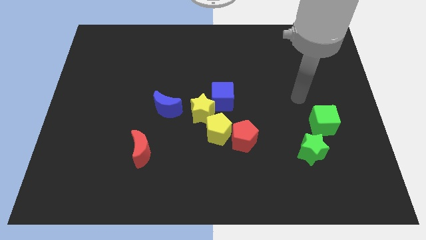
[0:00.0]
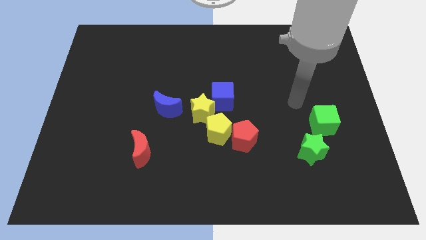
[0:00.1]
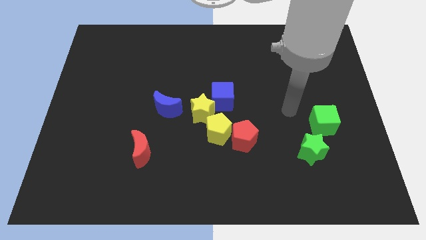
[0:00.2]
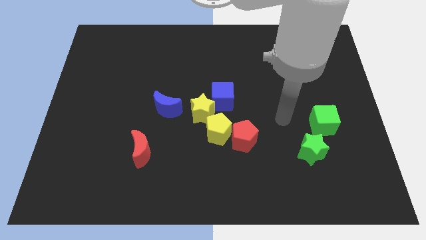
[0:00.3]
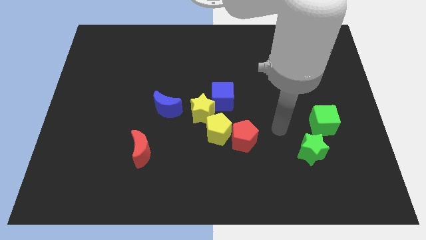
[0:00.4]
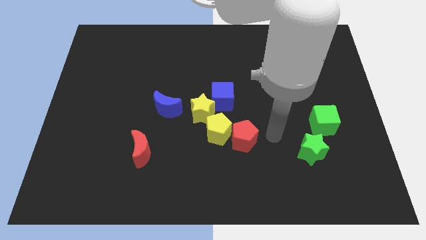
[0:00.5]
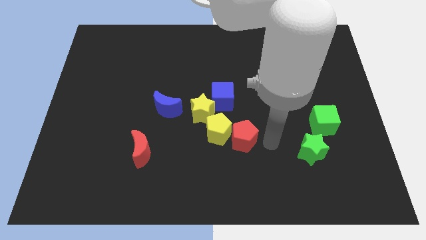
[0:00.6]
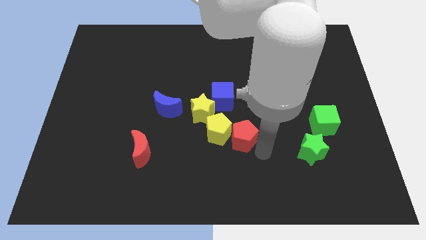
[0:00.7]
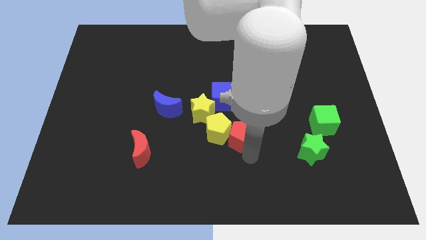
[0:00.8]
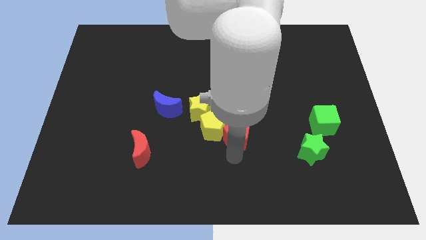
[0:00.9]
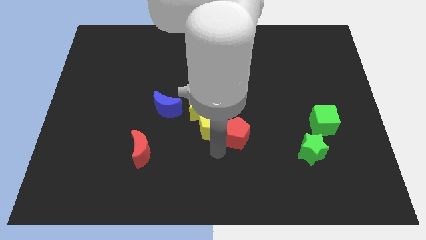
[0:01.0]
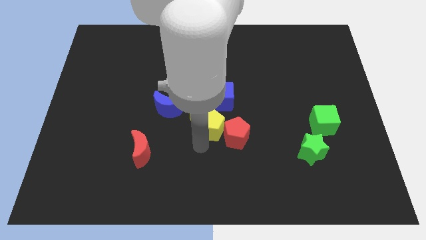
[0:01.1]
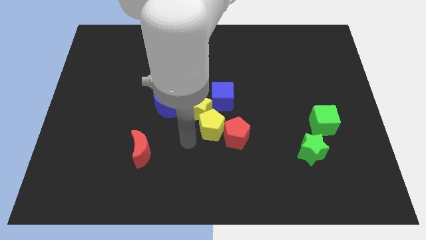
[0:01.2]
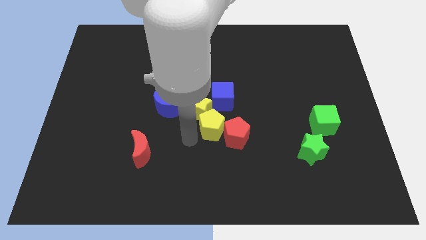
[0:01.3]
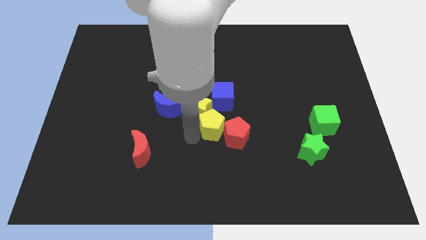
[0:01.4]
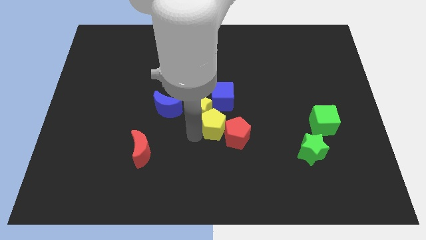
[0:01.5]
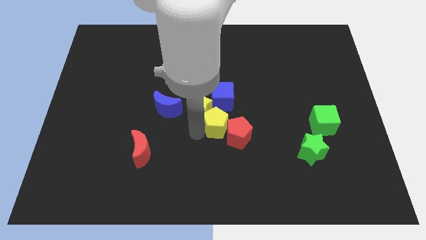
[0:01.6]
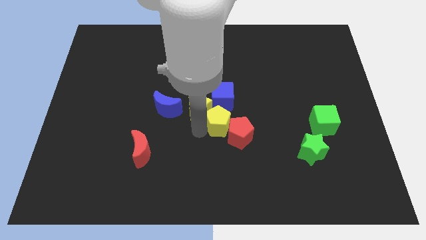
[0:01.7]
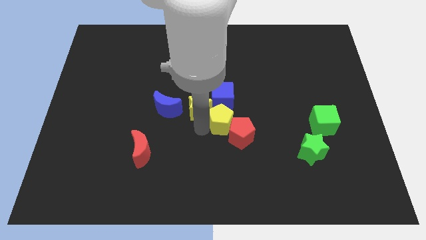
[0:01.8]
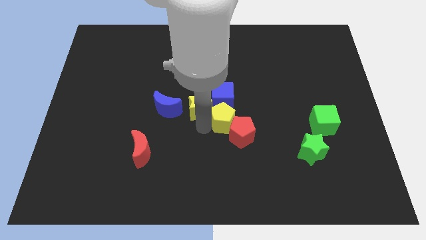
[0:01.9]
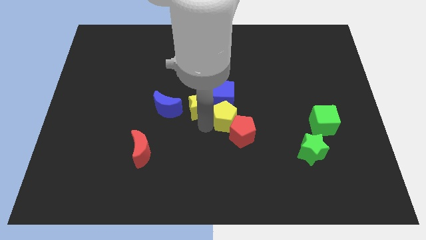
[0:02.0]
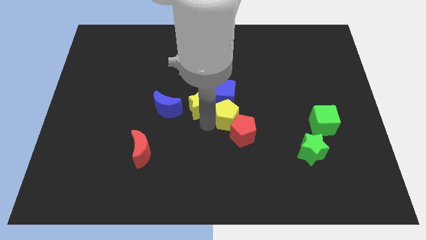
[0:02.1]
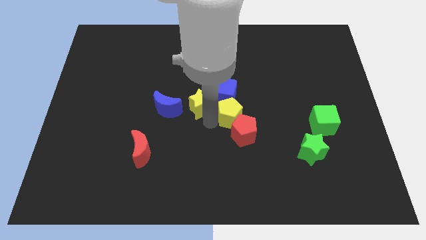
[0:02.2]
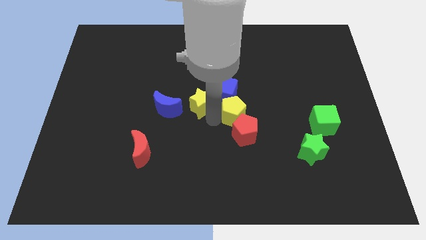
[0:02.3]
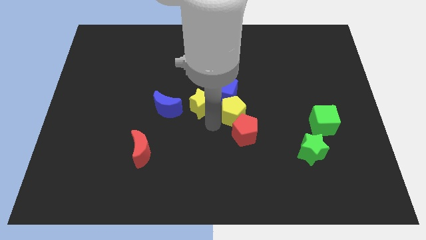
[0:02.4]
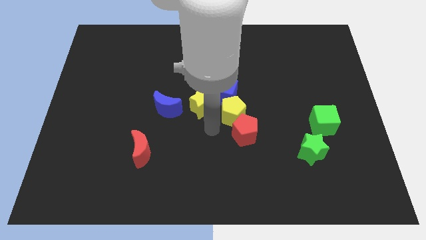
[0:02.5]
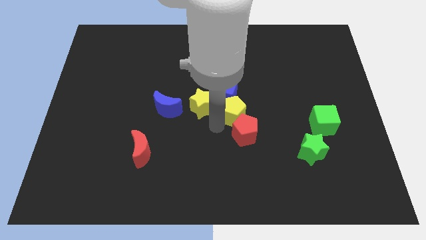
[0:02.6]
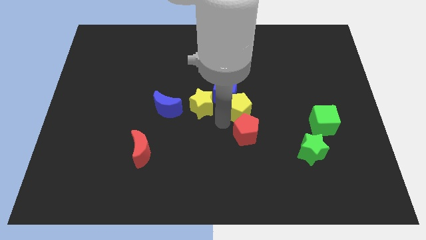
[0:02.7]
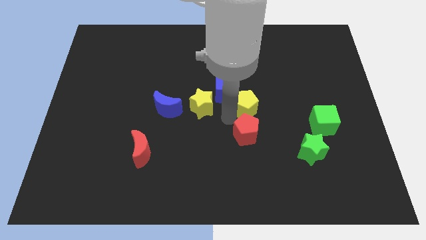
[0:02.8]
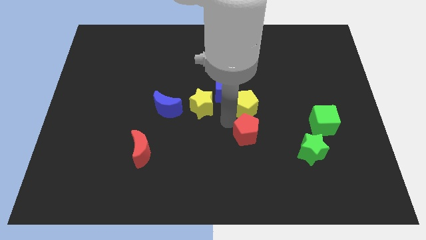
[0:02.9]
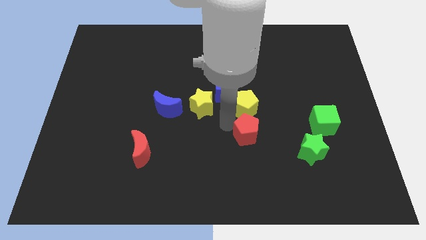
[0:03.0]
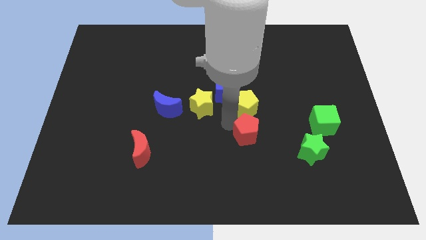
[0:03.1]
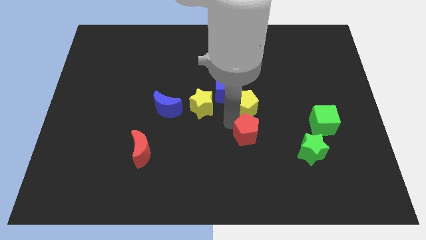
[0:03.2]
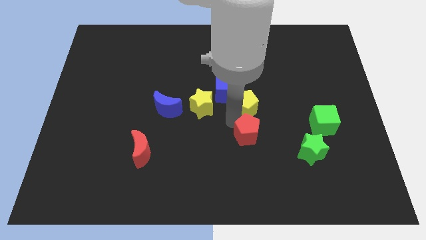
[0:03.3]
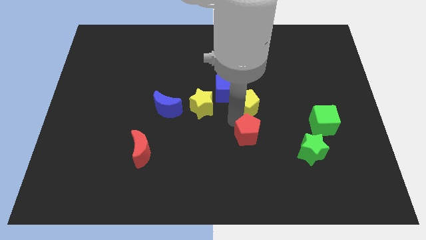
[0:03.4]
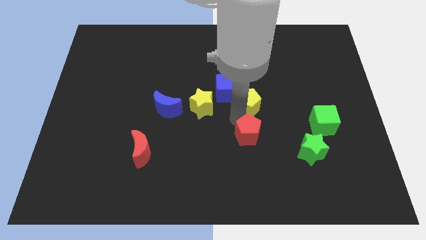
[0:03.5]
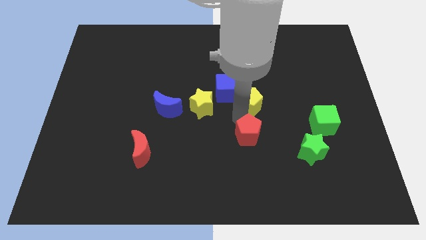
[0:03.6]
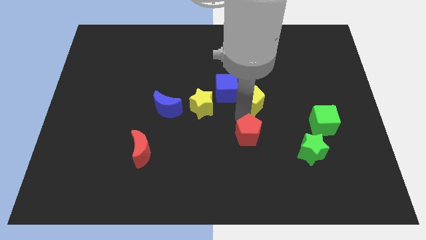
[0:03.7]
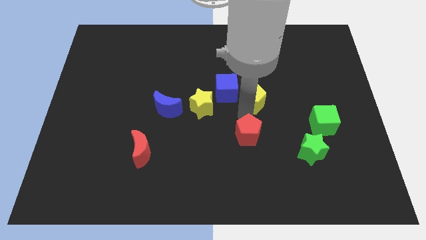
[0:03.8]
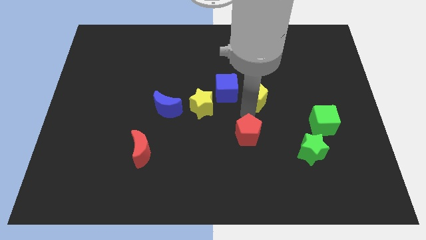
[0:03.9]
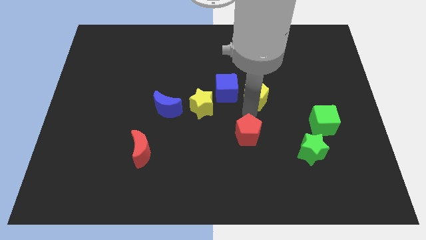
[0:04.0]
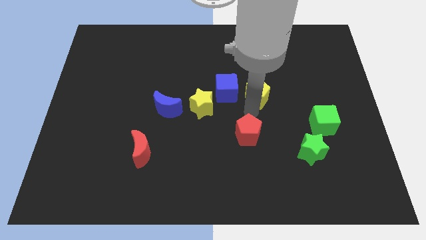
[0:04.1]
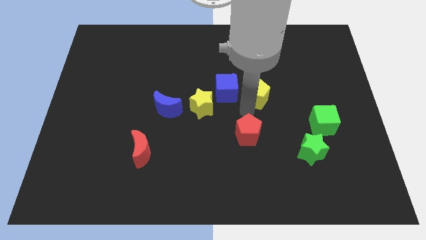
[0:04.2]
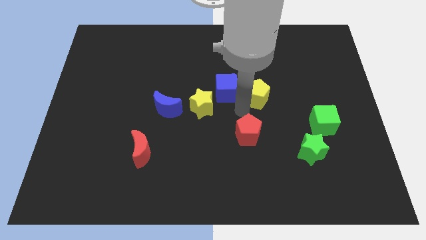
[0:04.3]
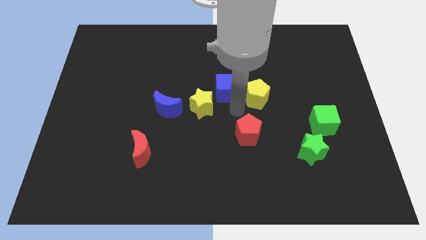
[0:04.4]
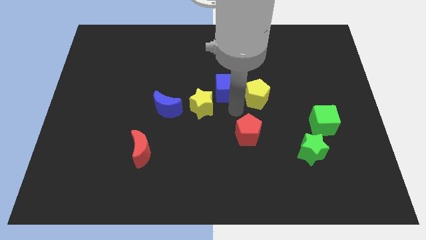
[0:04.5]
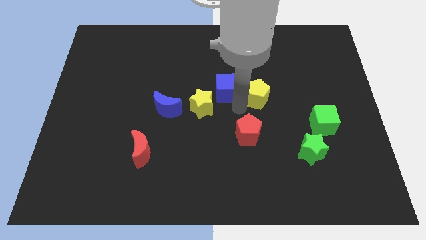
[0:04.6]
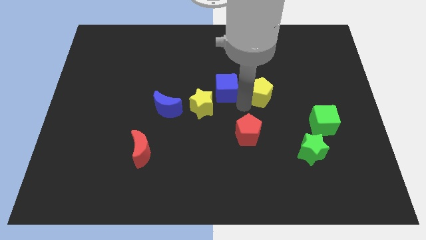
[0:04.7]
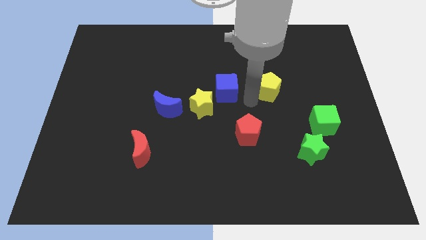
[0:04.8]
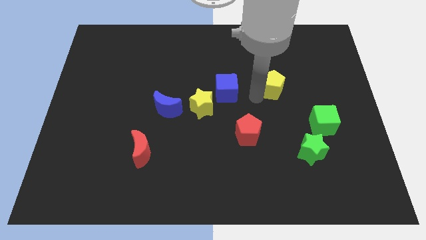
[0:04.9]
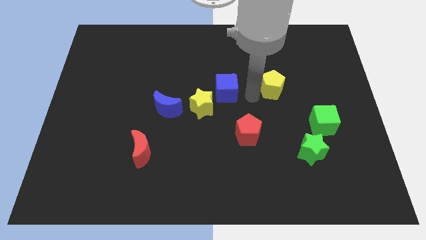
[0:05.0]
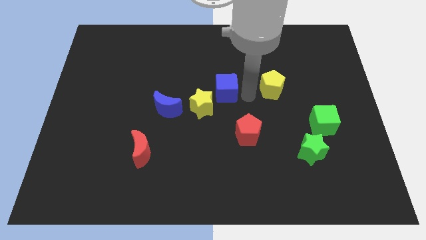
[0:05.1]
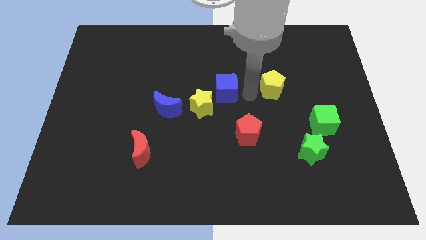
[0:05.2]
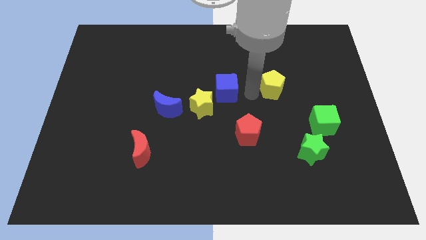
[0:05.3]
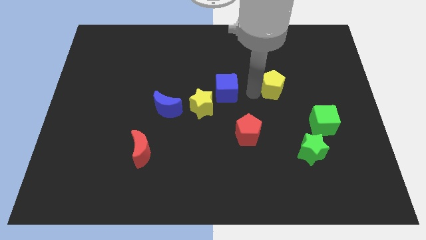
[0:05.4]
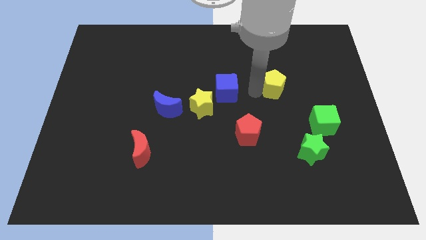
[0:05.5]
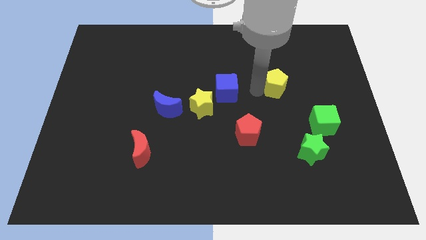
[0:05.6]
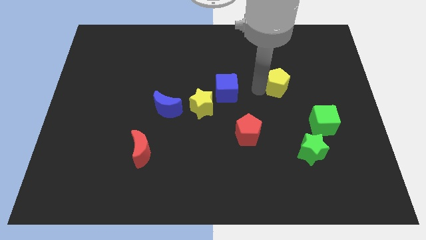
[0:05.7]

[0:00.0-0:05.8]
move the yellow pentagon up and right

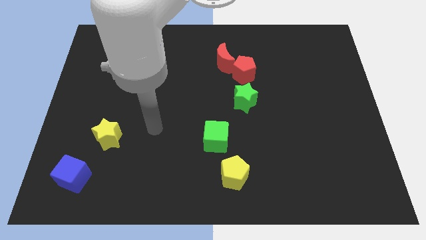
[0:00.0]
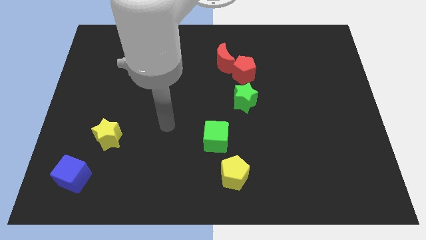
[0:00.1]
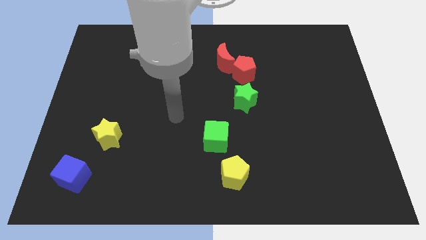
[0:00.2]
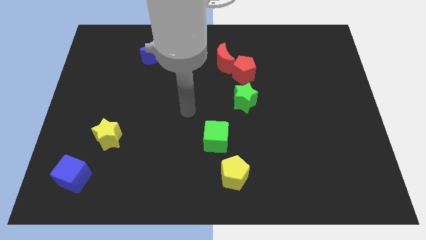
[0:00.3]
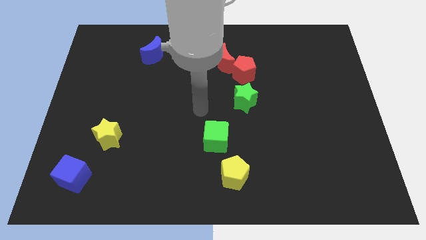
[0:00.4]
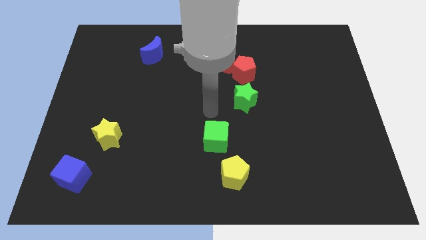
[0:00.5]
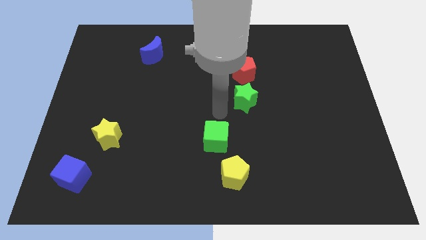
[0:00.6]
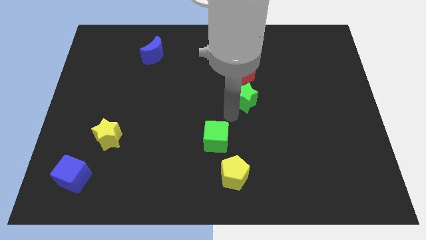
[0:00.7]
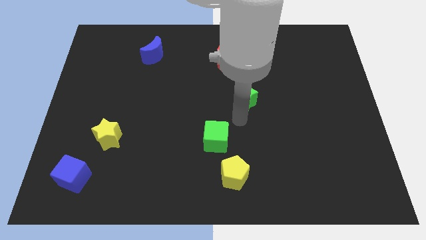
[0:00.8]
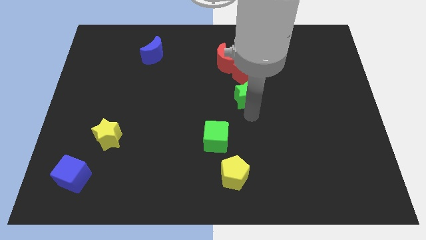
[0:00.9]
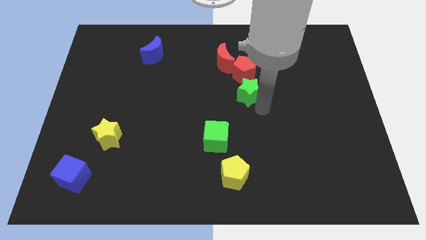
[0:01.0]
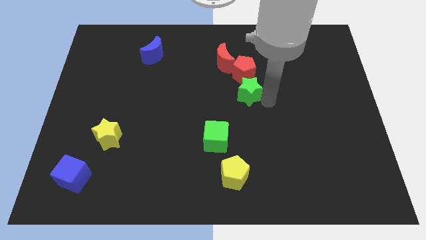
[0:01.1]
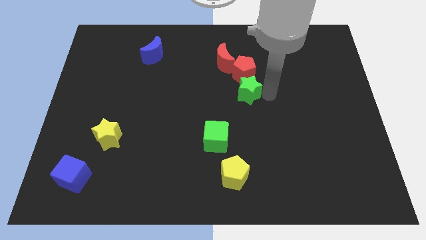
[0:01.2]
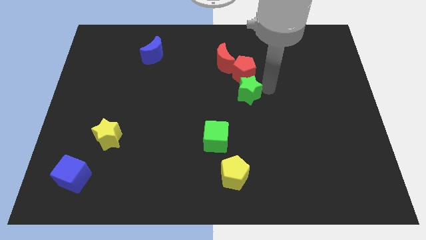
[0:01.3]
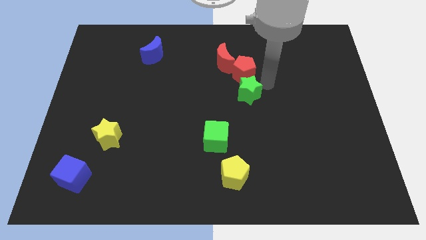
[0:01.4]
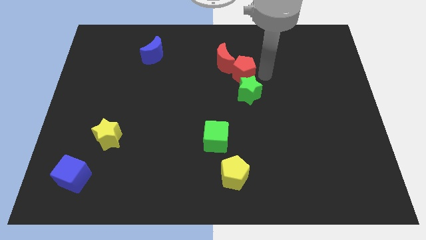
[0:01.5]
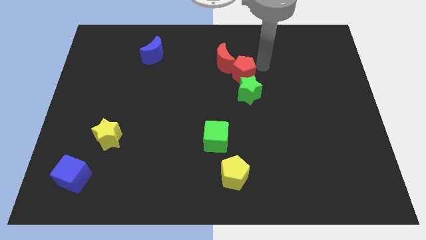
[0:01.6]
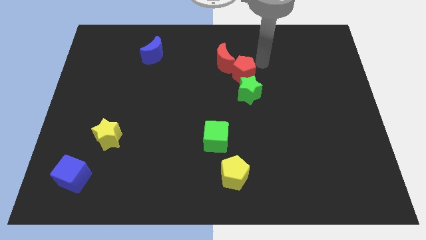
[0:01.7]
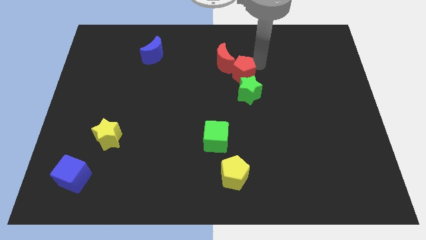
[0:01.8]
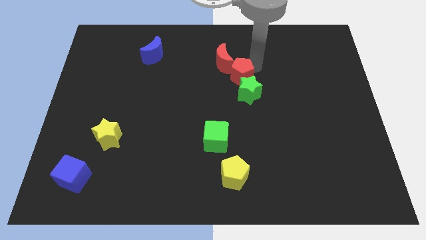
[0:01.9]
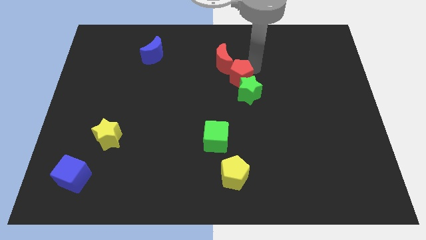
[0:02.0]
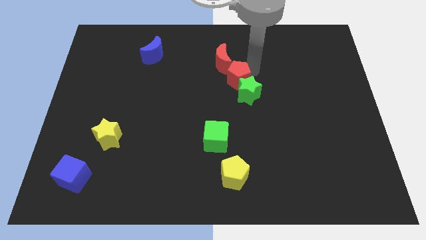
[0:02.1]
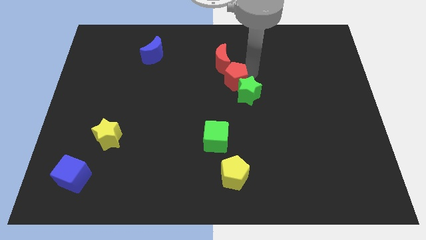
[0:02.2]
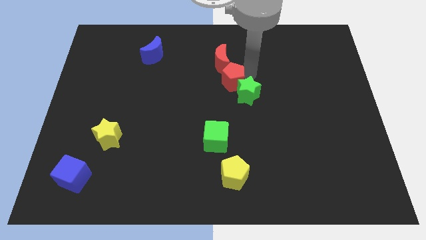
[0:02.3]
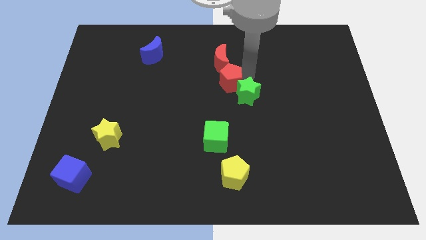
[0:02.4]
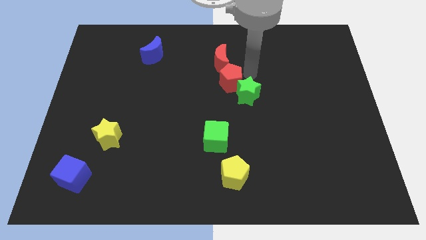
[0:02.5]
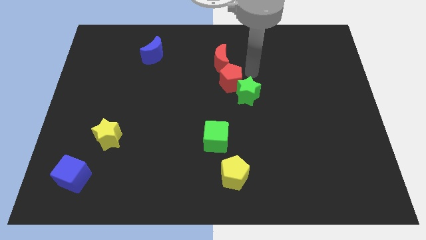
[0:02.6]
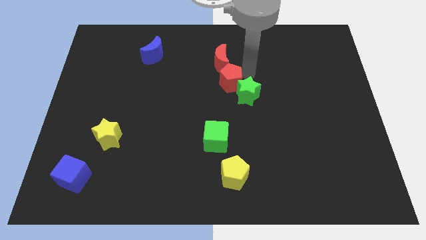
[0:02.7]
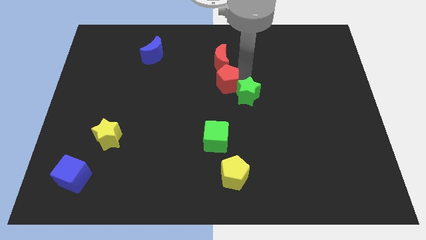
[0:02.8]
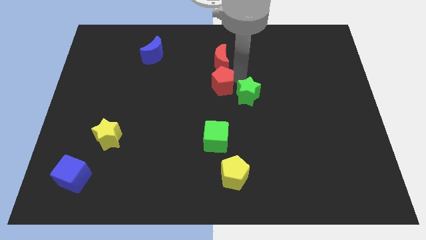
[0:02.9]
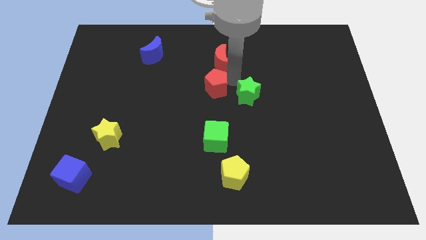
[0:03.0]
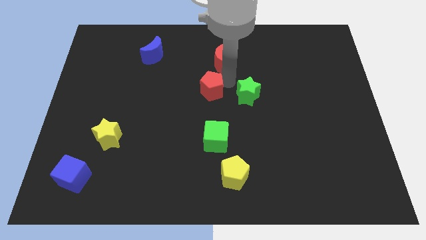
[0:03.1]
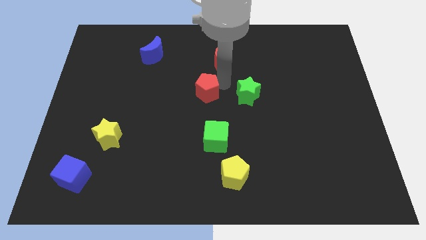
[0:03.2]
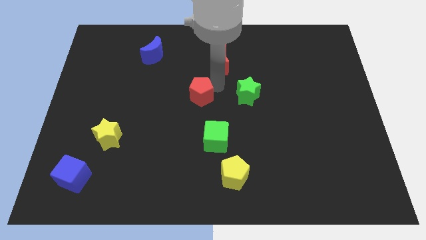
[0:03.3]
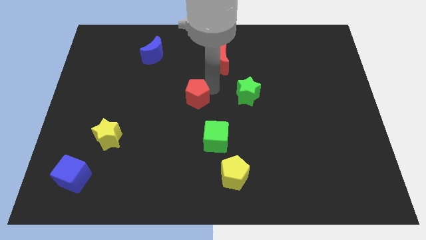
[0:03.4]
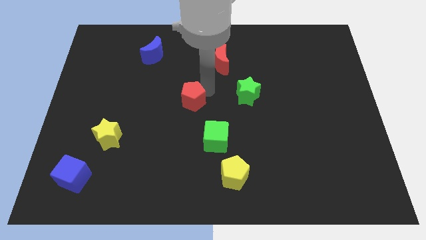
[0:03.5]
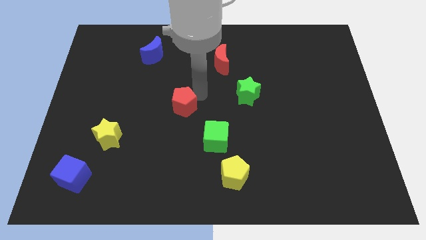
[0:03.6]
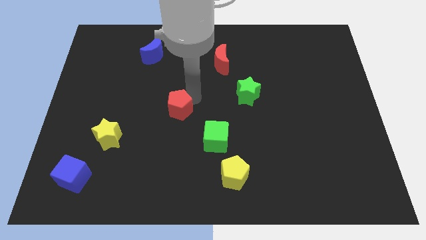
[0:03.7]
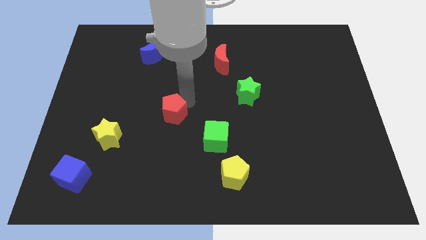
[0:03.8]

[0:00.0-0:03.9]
move the red pentagon downwards and left
